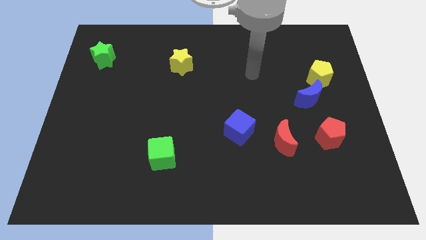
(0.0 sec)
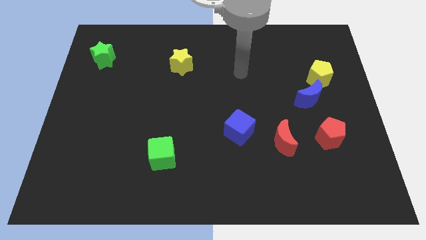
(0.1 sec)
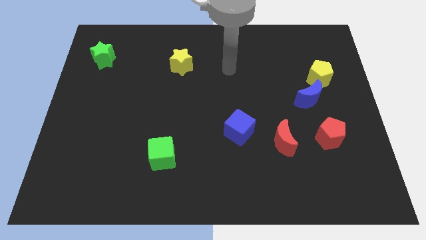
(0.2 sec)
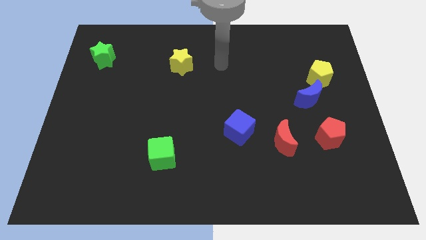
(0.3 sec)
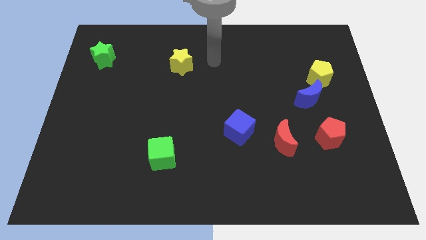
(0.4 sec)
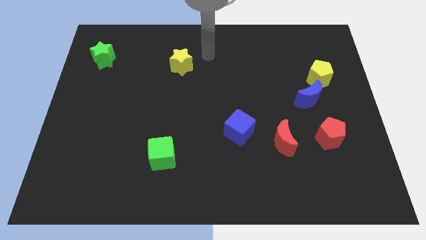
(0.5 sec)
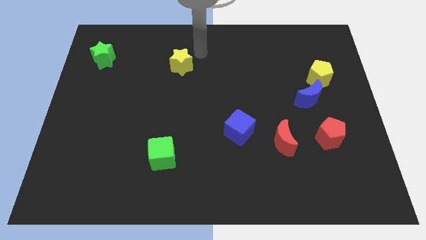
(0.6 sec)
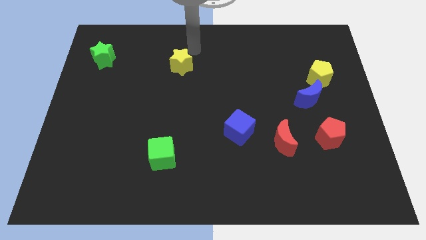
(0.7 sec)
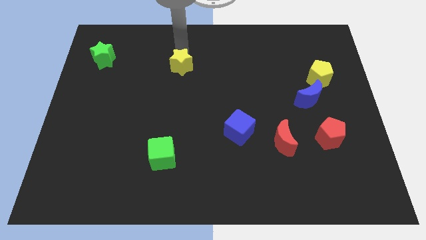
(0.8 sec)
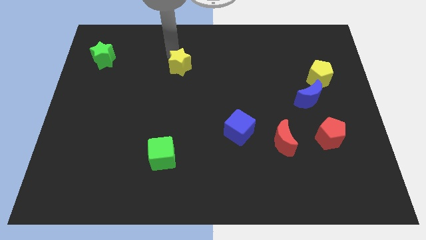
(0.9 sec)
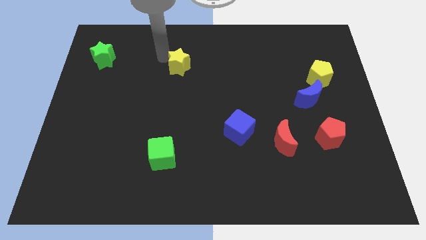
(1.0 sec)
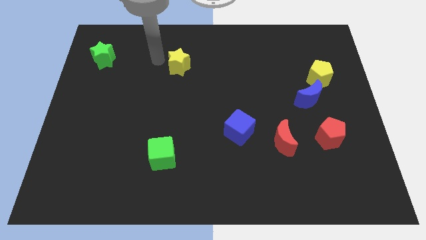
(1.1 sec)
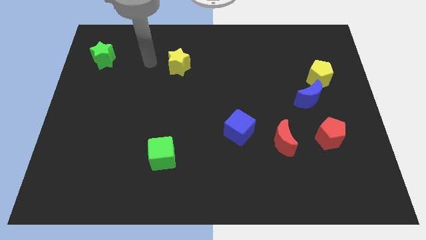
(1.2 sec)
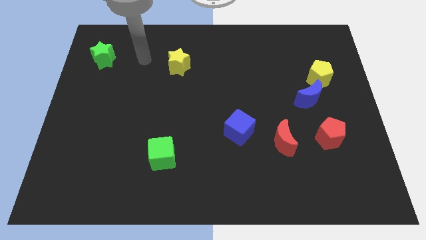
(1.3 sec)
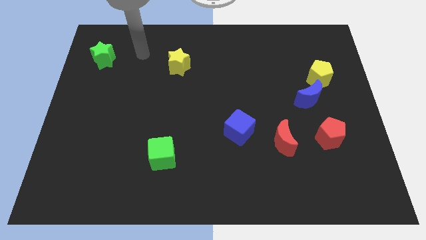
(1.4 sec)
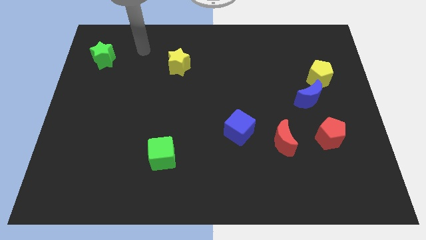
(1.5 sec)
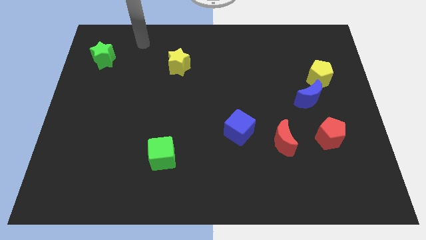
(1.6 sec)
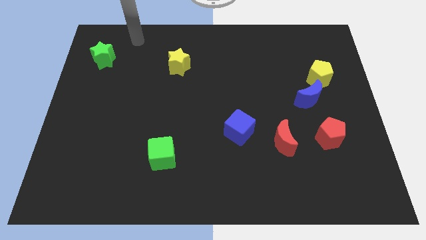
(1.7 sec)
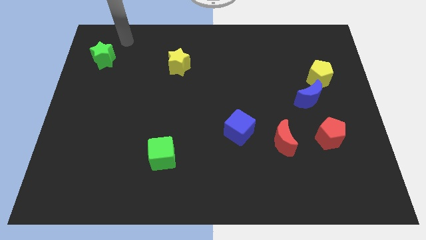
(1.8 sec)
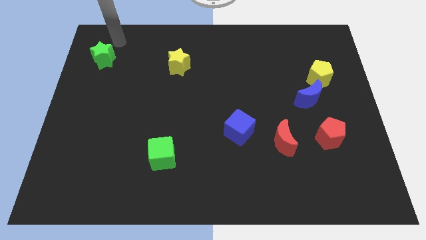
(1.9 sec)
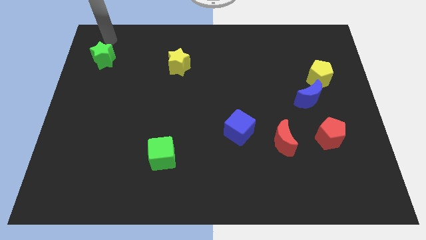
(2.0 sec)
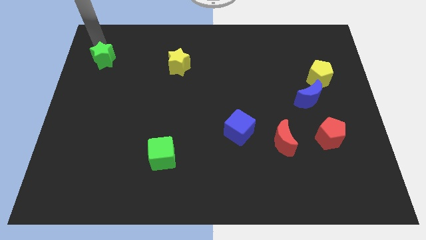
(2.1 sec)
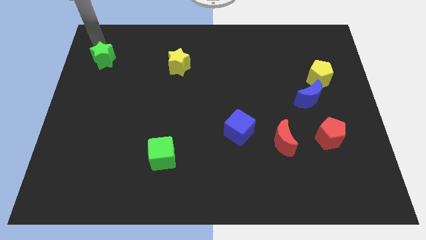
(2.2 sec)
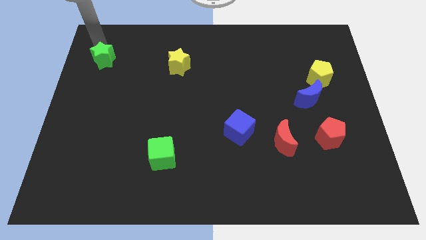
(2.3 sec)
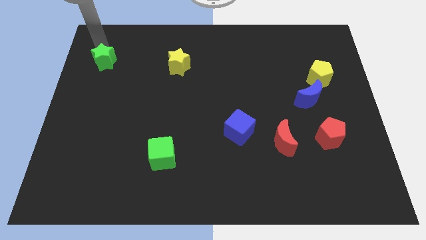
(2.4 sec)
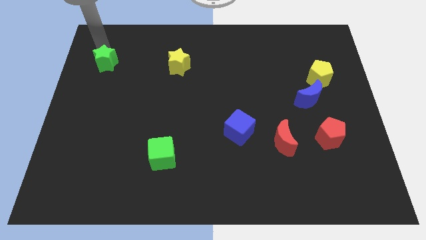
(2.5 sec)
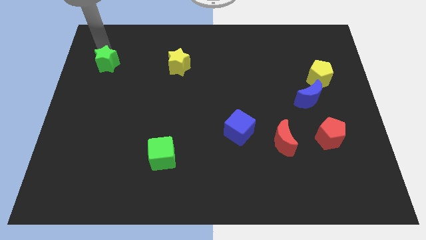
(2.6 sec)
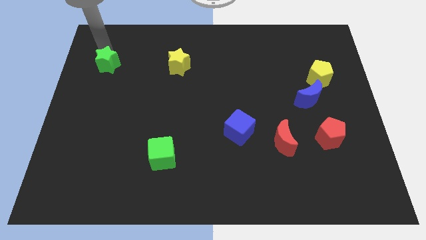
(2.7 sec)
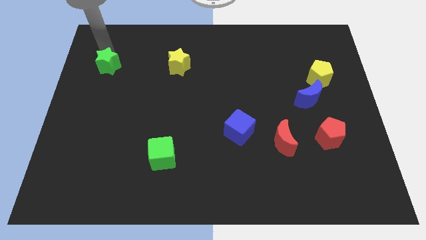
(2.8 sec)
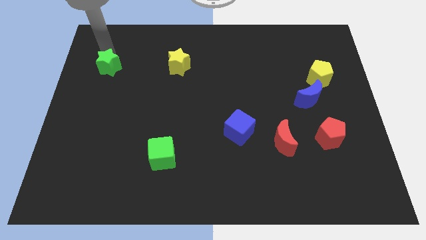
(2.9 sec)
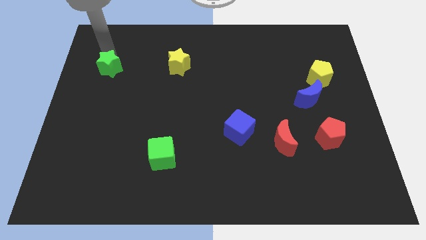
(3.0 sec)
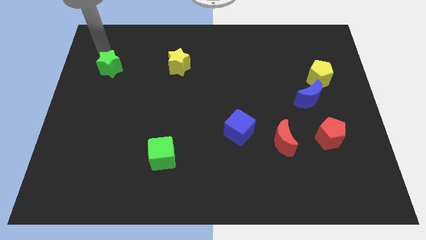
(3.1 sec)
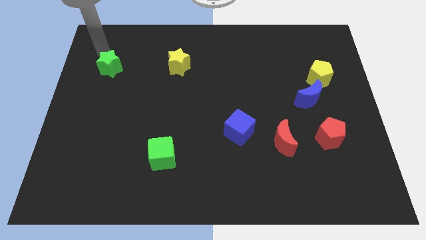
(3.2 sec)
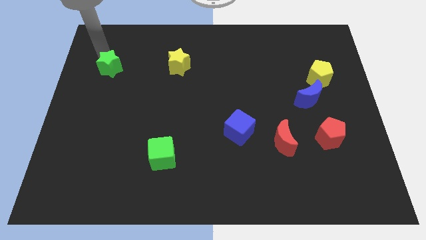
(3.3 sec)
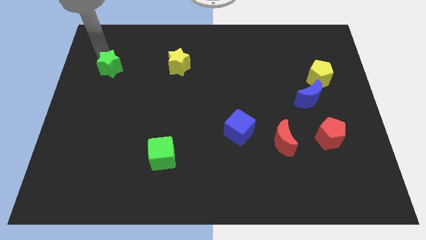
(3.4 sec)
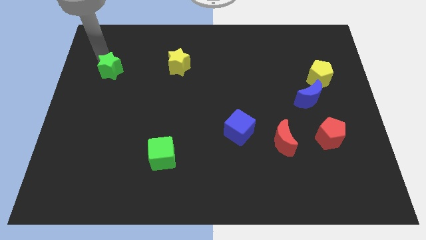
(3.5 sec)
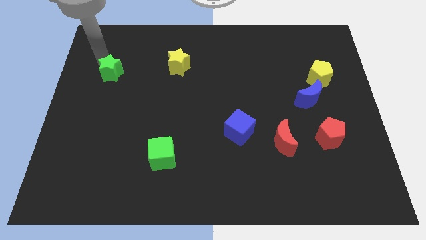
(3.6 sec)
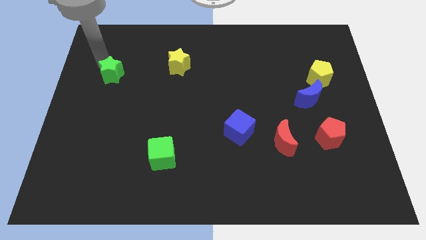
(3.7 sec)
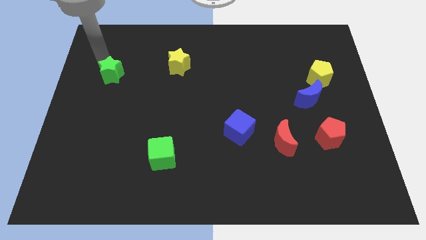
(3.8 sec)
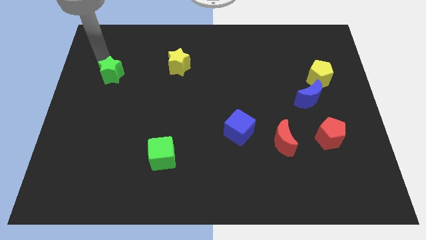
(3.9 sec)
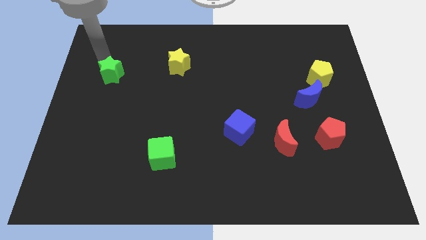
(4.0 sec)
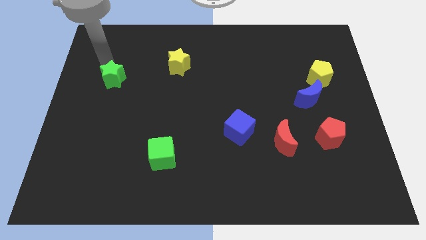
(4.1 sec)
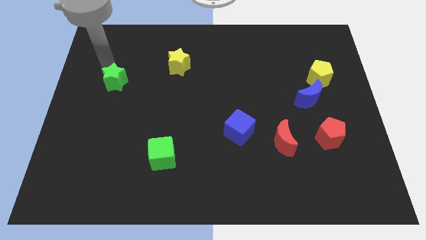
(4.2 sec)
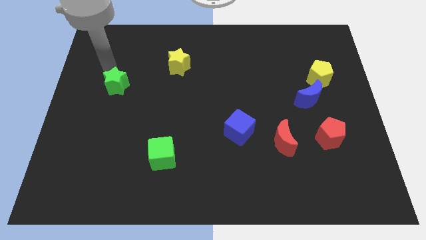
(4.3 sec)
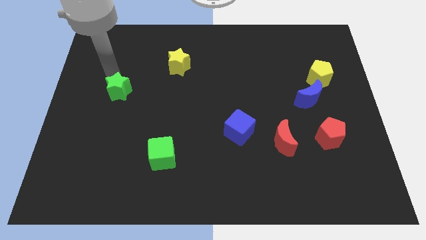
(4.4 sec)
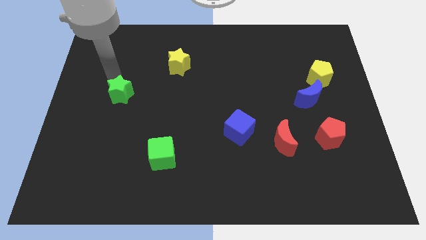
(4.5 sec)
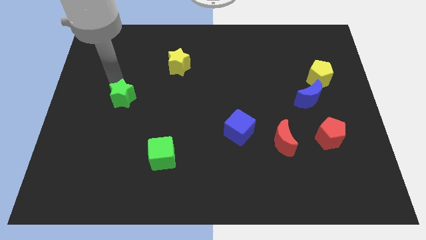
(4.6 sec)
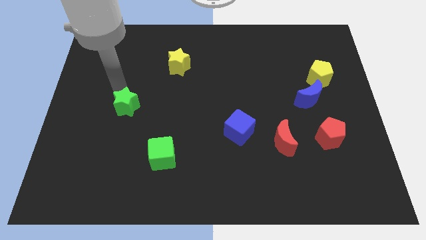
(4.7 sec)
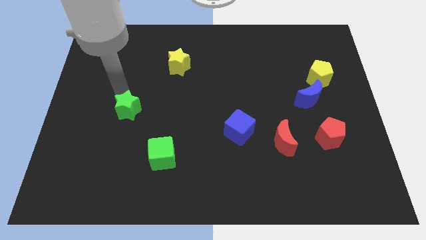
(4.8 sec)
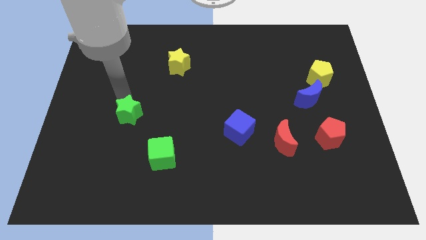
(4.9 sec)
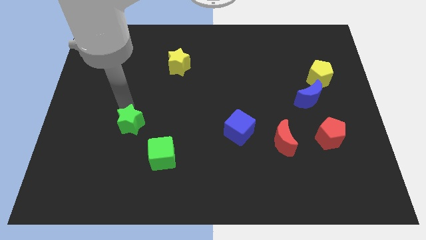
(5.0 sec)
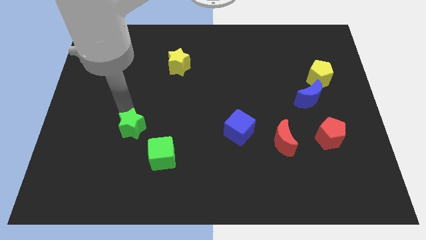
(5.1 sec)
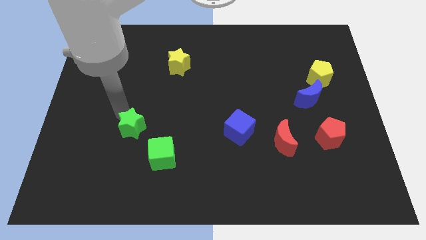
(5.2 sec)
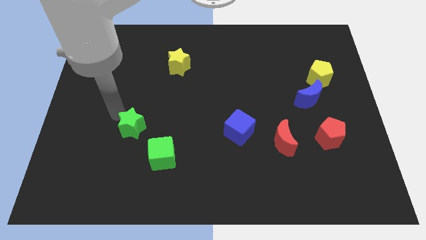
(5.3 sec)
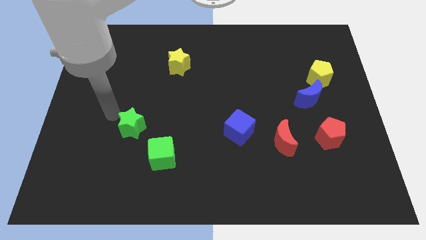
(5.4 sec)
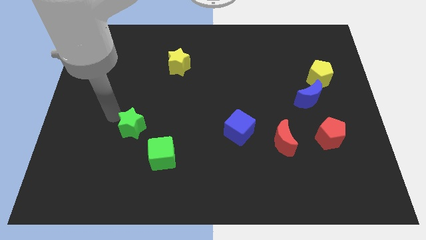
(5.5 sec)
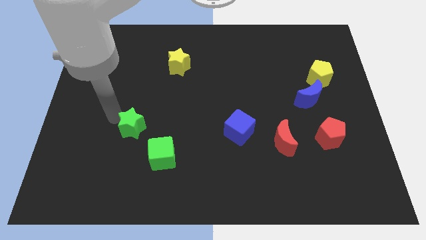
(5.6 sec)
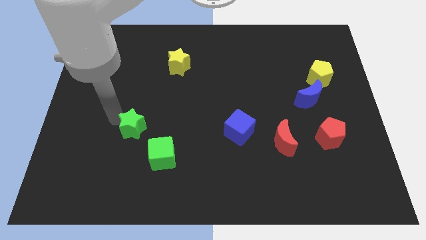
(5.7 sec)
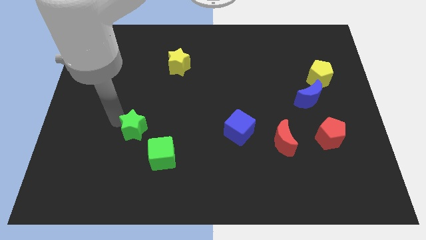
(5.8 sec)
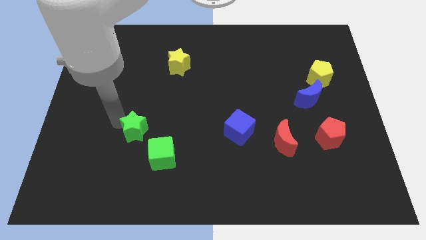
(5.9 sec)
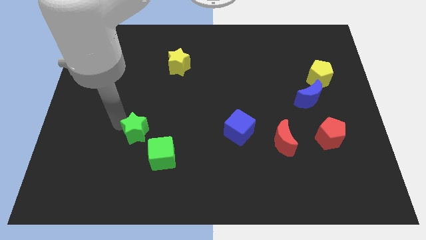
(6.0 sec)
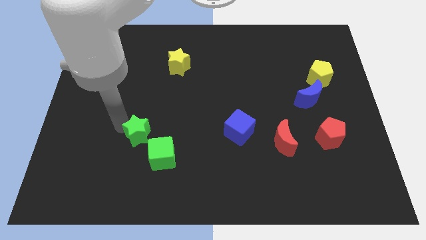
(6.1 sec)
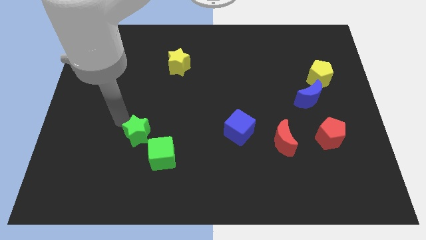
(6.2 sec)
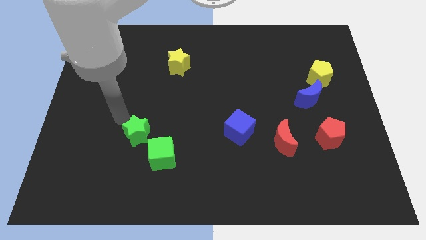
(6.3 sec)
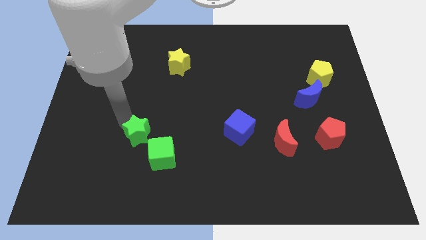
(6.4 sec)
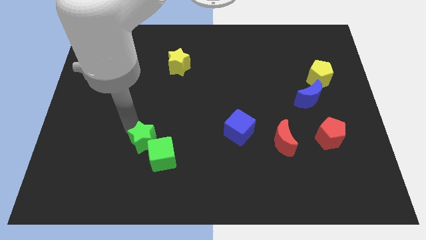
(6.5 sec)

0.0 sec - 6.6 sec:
push the green star to the green cube

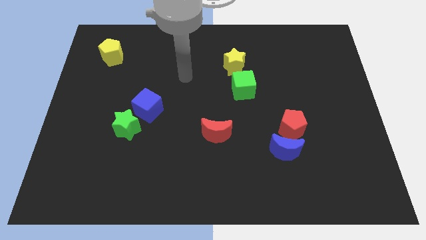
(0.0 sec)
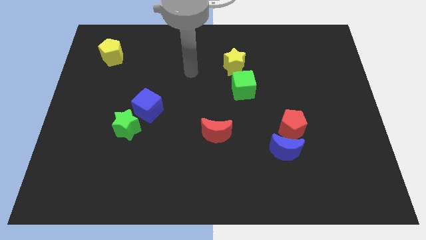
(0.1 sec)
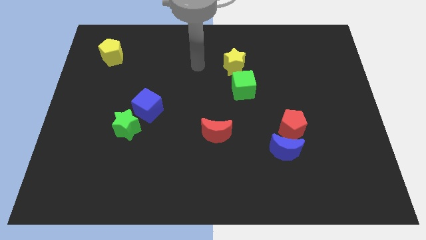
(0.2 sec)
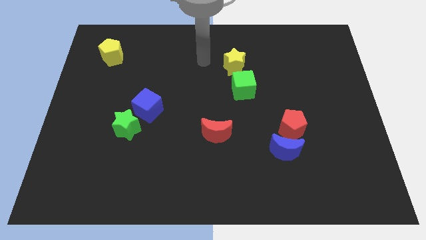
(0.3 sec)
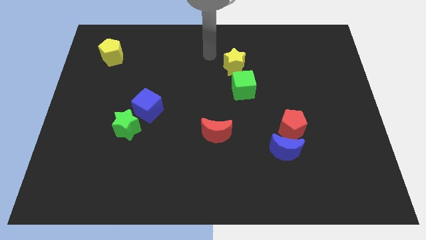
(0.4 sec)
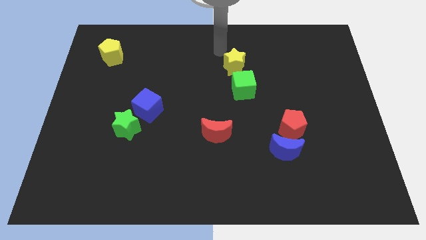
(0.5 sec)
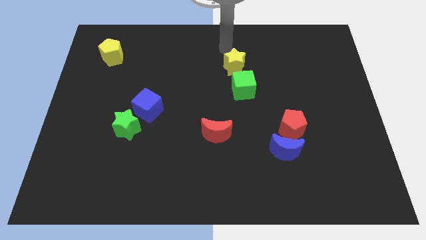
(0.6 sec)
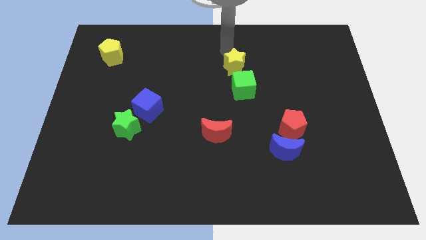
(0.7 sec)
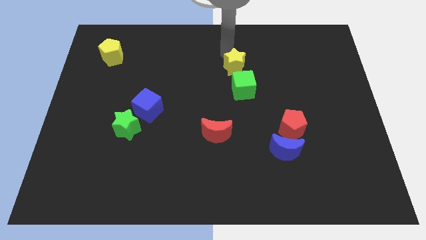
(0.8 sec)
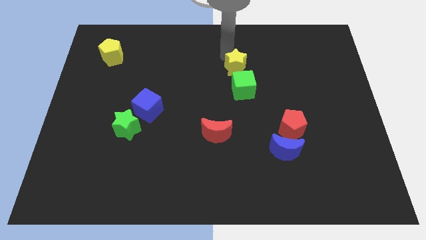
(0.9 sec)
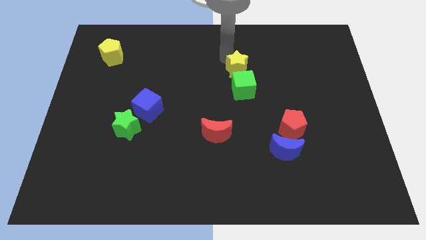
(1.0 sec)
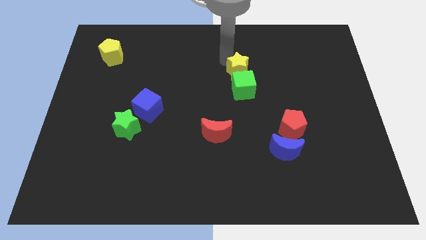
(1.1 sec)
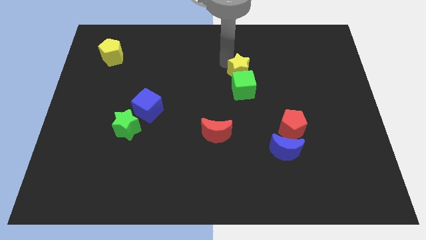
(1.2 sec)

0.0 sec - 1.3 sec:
push the yellow star next to the green cube
